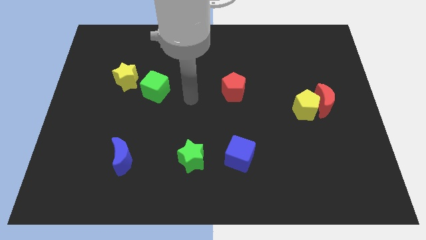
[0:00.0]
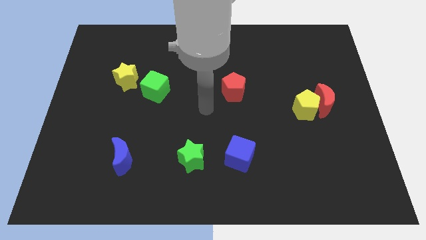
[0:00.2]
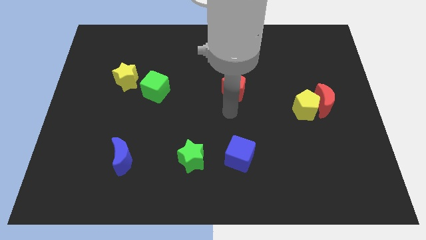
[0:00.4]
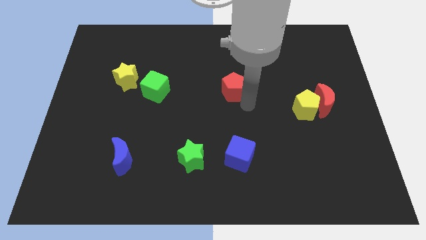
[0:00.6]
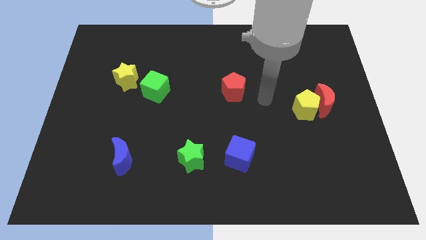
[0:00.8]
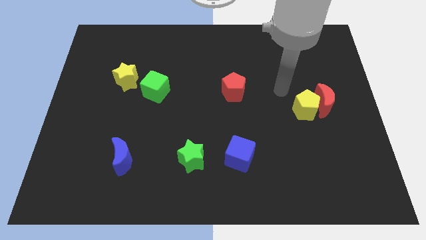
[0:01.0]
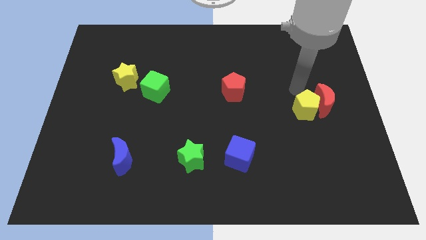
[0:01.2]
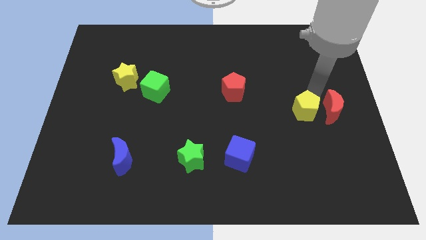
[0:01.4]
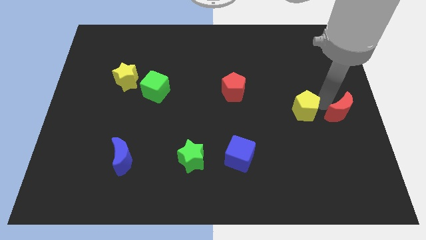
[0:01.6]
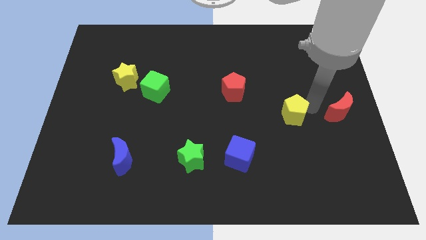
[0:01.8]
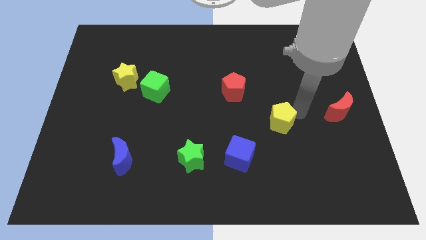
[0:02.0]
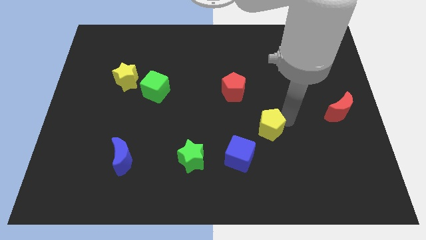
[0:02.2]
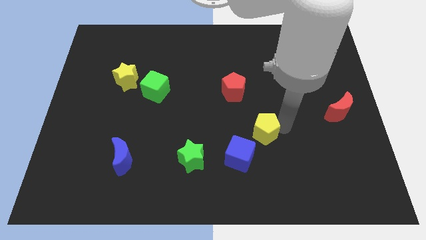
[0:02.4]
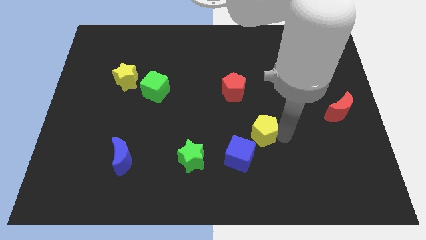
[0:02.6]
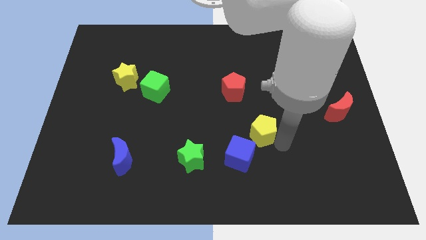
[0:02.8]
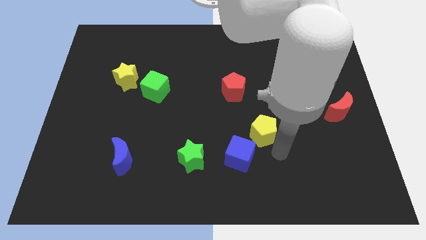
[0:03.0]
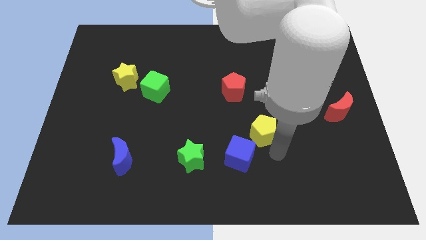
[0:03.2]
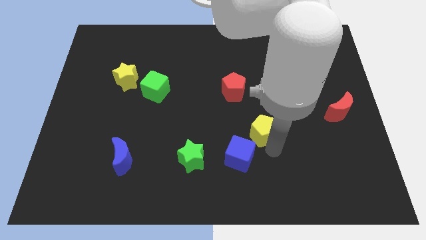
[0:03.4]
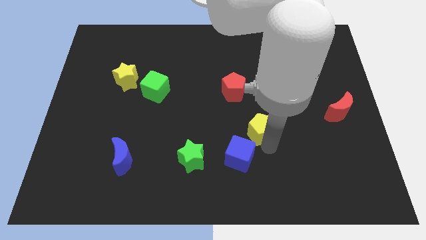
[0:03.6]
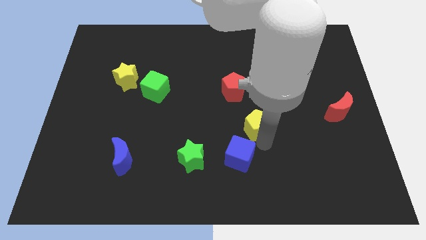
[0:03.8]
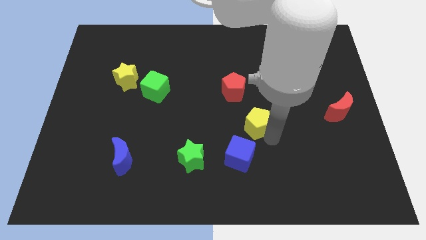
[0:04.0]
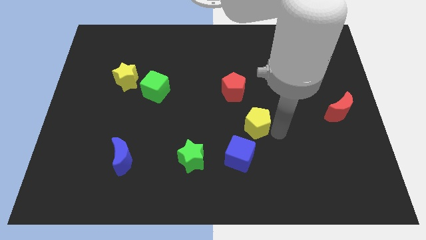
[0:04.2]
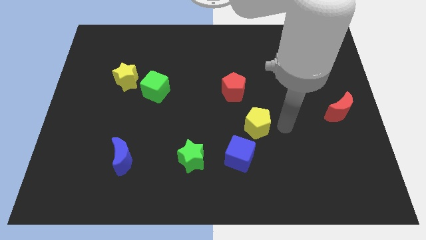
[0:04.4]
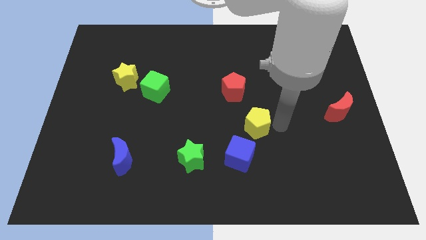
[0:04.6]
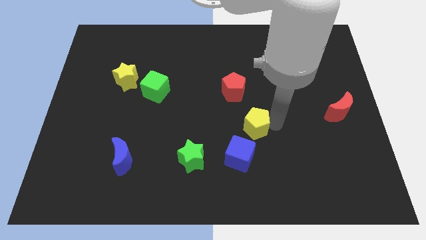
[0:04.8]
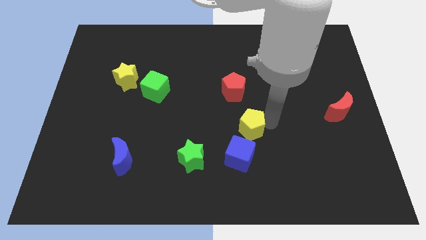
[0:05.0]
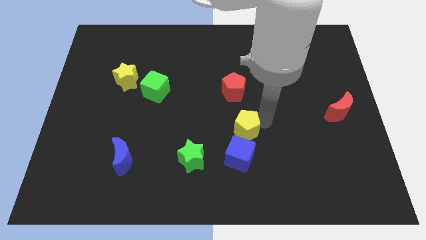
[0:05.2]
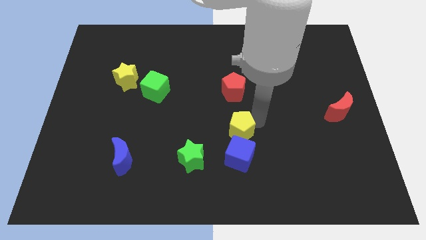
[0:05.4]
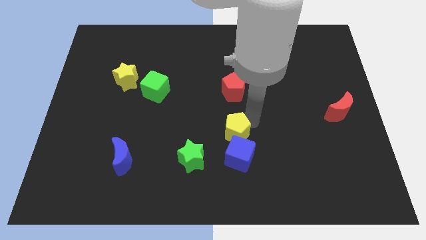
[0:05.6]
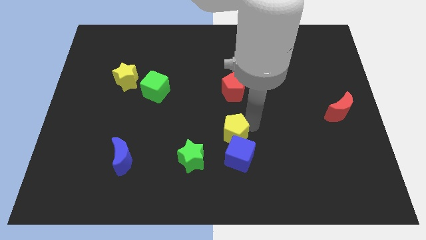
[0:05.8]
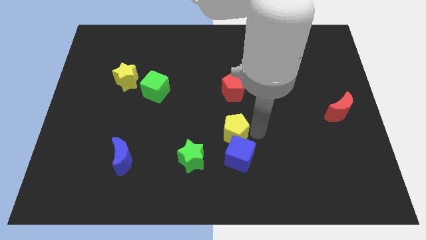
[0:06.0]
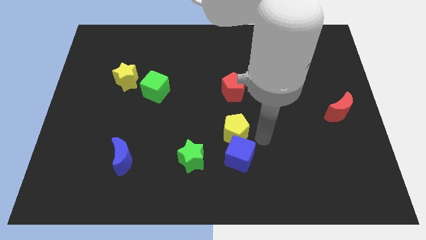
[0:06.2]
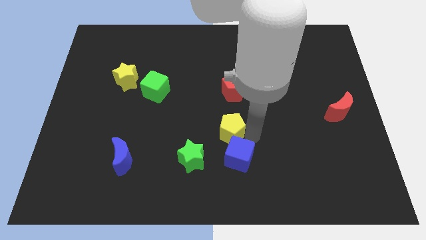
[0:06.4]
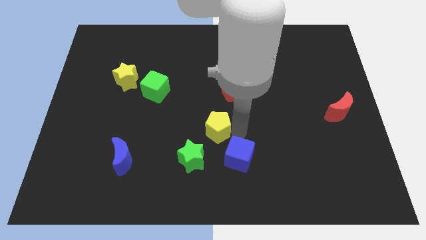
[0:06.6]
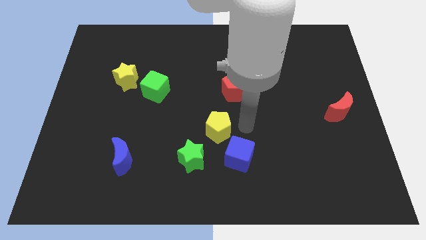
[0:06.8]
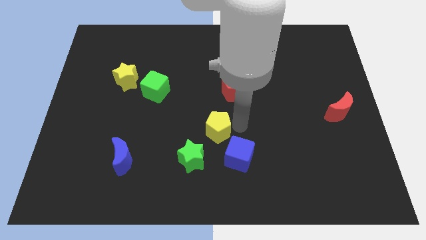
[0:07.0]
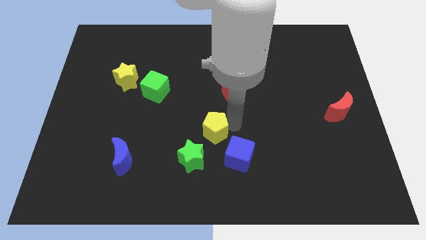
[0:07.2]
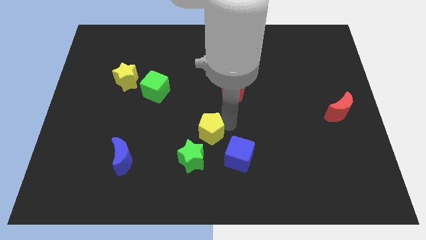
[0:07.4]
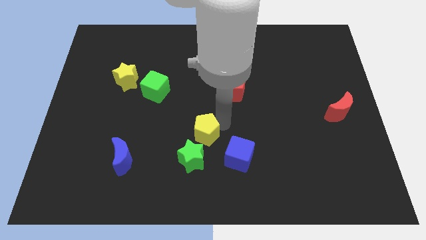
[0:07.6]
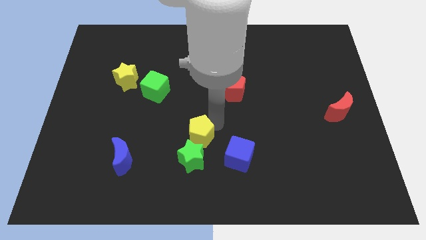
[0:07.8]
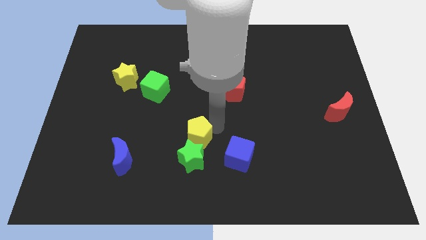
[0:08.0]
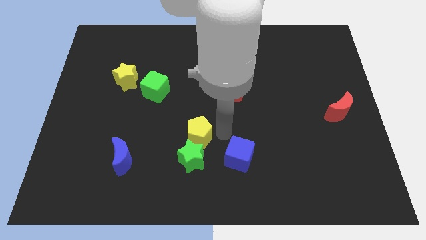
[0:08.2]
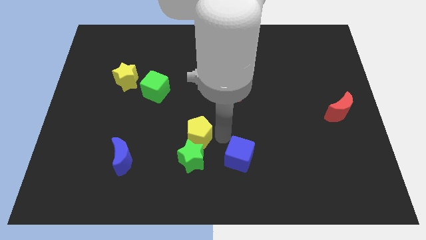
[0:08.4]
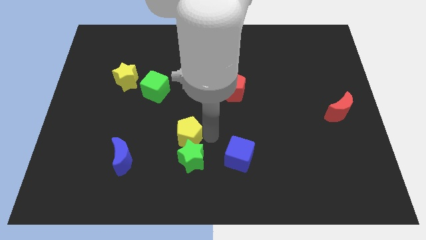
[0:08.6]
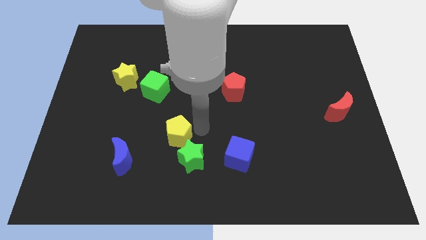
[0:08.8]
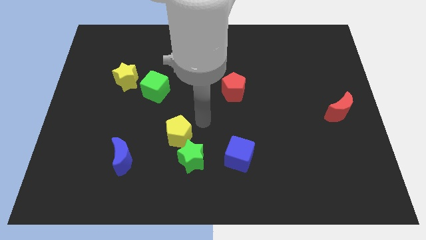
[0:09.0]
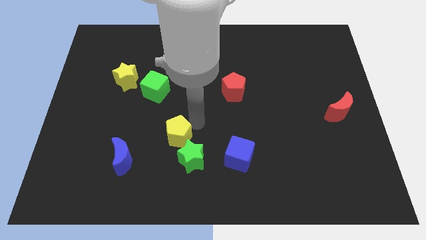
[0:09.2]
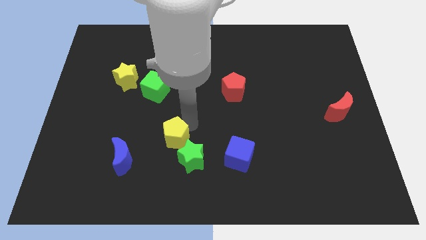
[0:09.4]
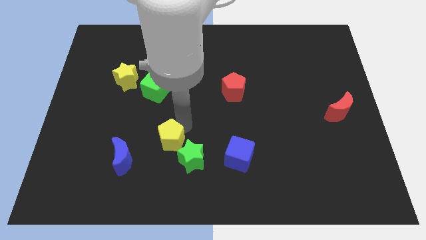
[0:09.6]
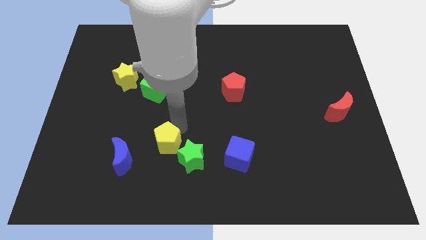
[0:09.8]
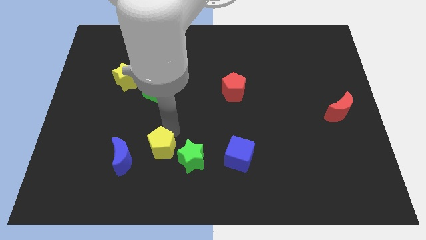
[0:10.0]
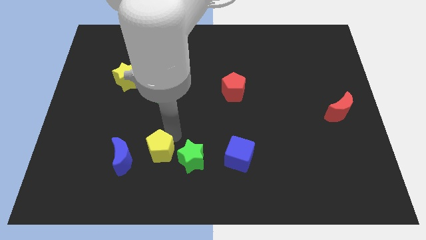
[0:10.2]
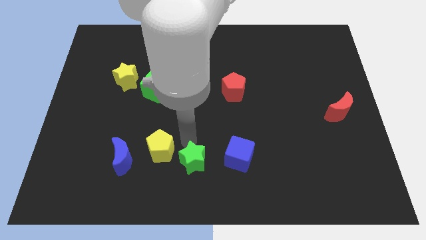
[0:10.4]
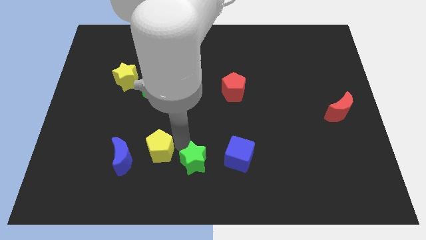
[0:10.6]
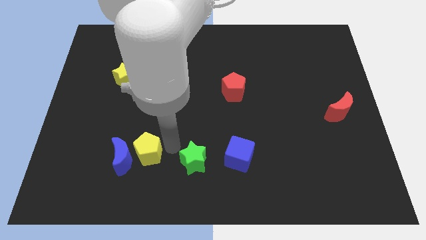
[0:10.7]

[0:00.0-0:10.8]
push the yellow pentagon close to the blue moon

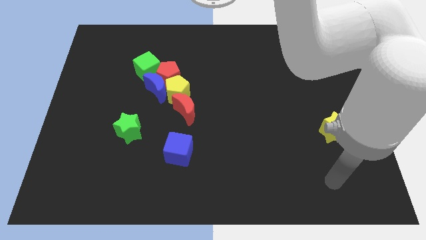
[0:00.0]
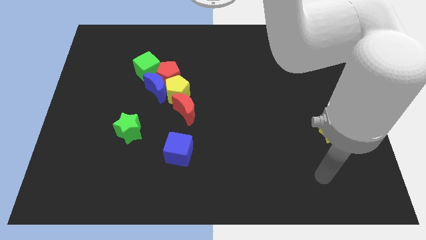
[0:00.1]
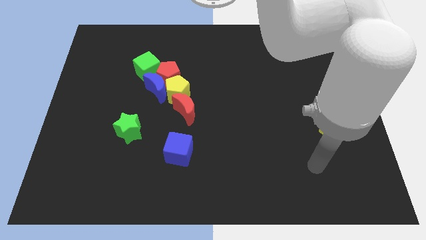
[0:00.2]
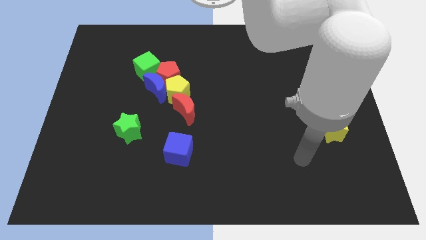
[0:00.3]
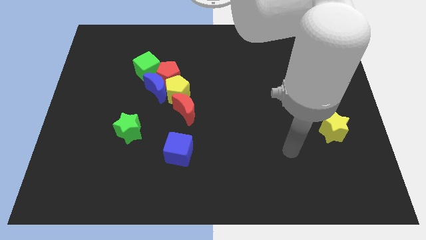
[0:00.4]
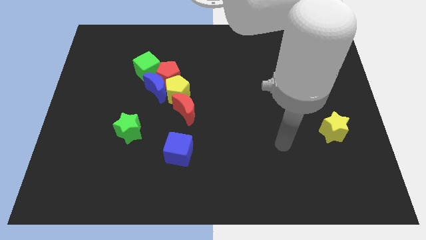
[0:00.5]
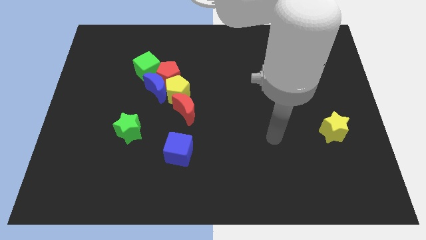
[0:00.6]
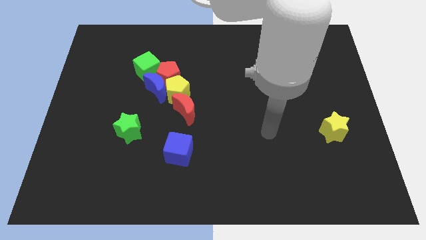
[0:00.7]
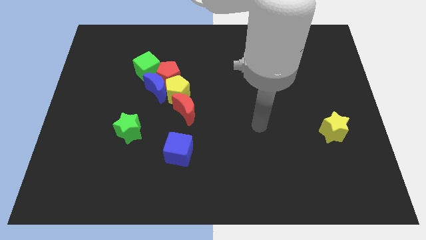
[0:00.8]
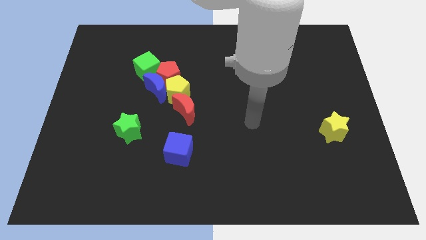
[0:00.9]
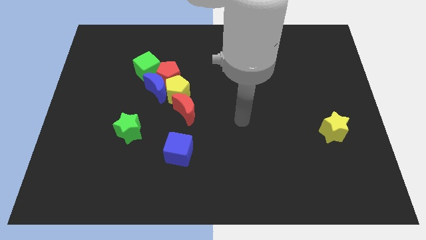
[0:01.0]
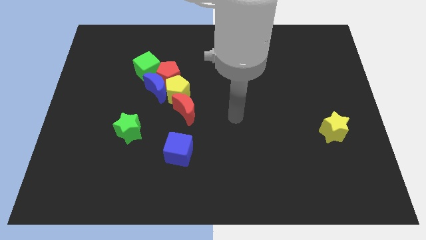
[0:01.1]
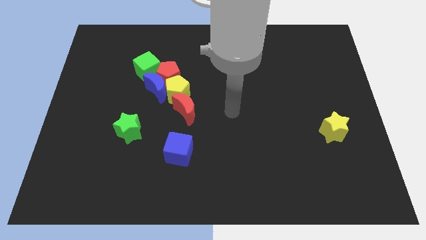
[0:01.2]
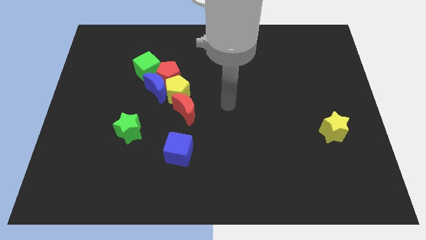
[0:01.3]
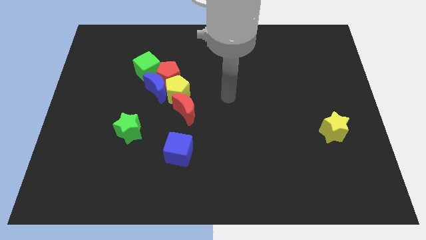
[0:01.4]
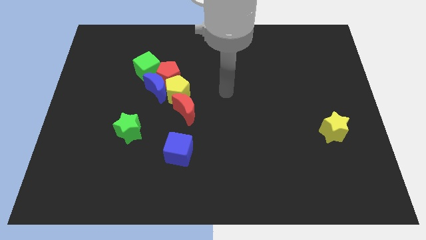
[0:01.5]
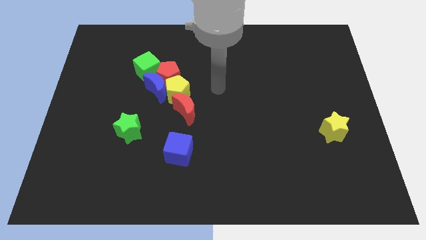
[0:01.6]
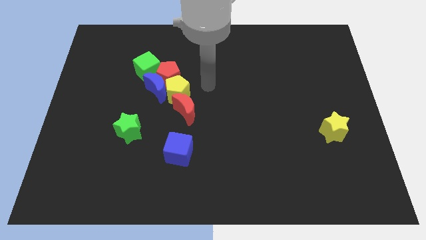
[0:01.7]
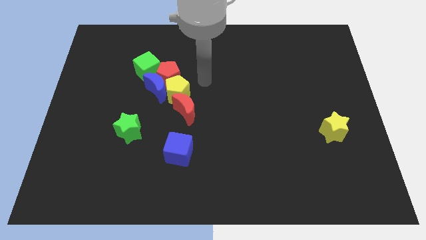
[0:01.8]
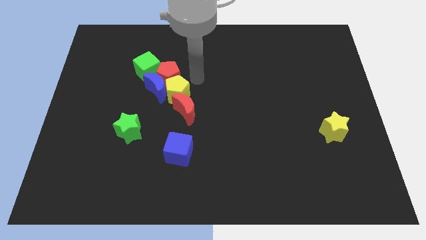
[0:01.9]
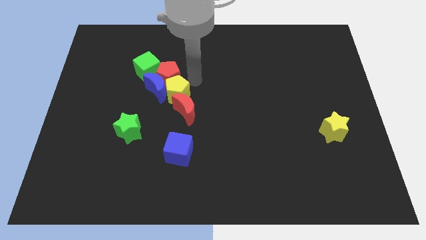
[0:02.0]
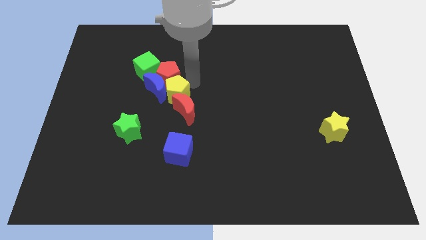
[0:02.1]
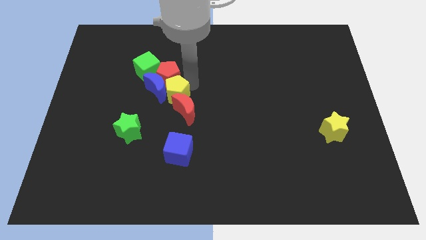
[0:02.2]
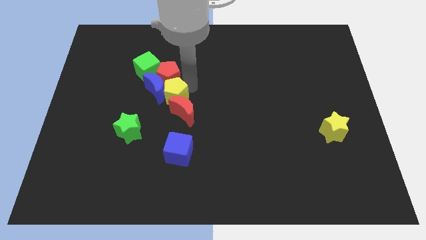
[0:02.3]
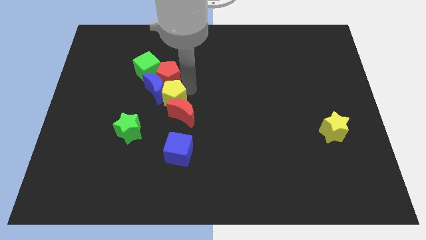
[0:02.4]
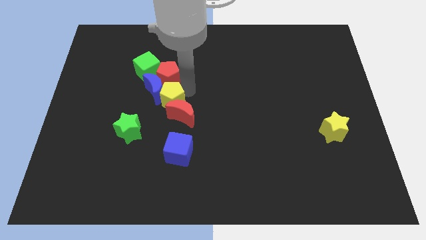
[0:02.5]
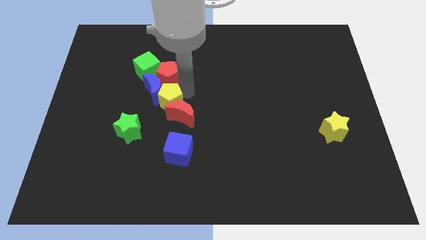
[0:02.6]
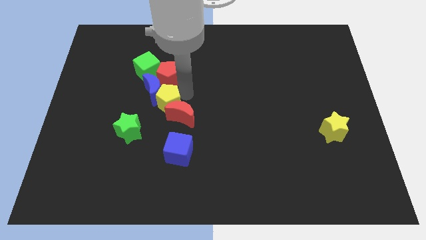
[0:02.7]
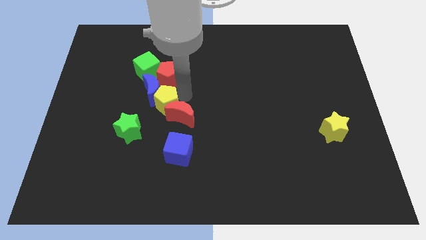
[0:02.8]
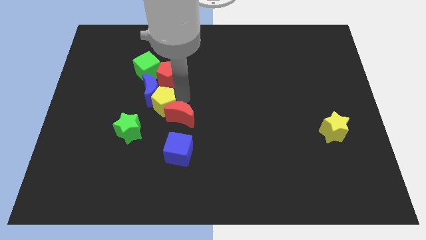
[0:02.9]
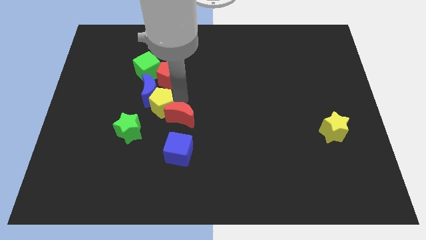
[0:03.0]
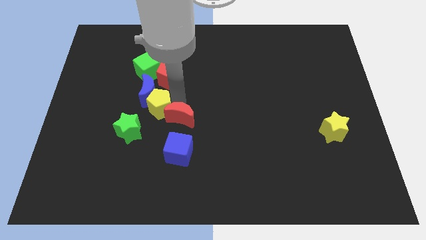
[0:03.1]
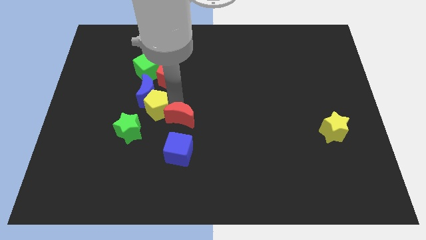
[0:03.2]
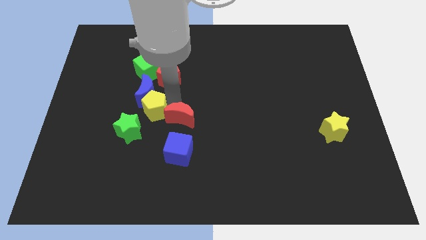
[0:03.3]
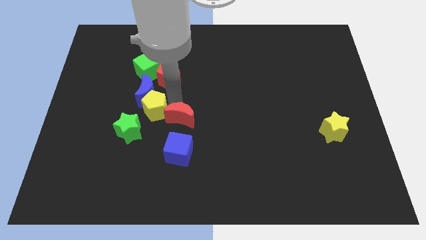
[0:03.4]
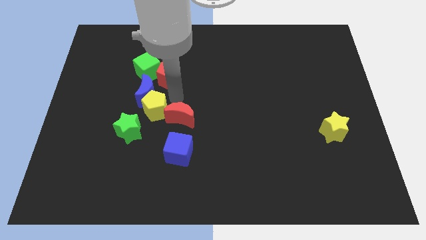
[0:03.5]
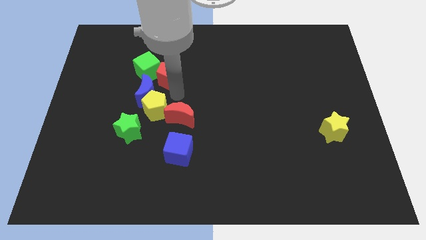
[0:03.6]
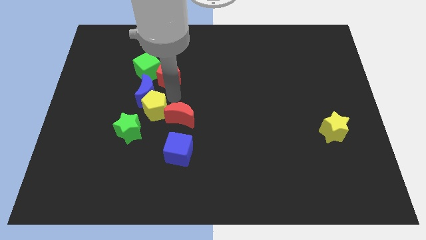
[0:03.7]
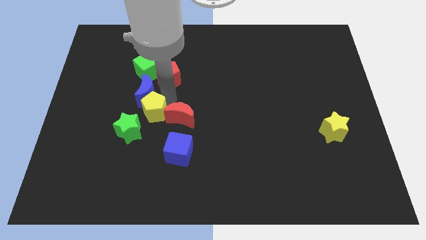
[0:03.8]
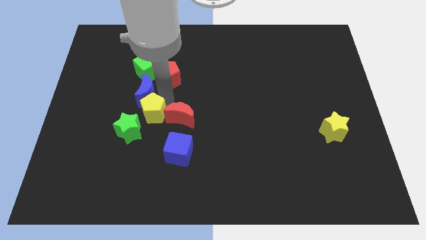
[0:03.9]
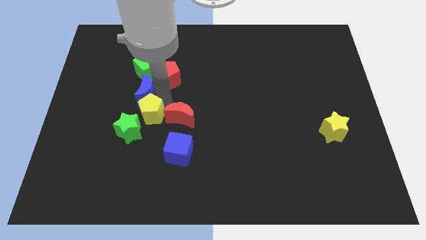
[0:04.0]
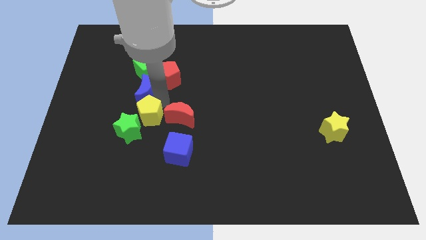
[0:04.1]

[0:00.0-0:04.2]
push the yellow pentagon next to the green star
